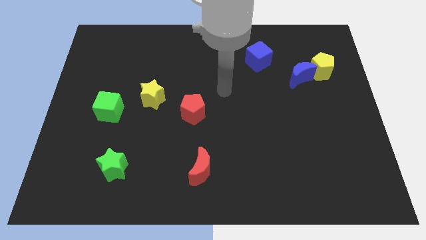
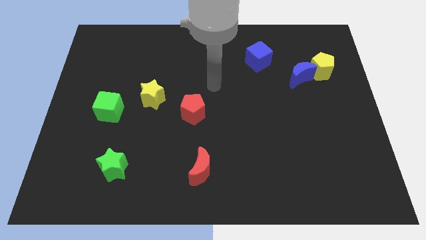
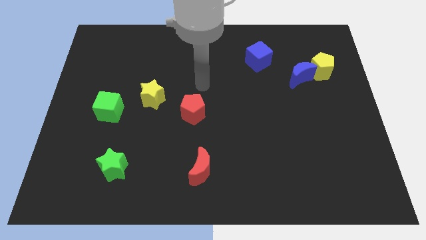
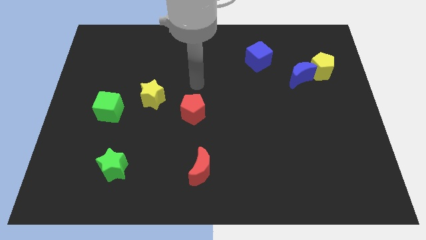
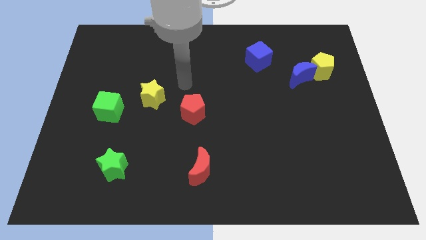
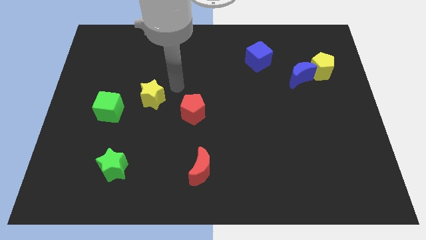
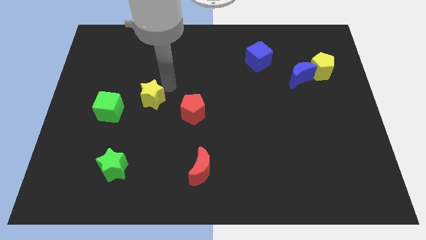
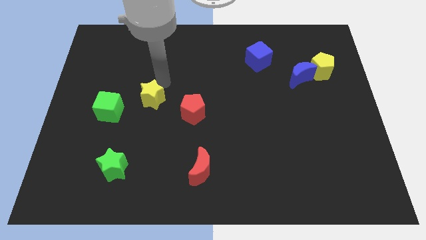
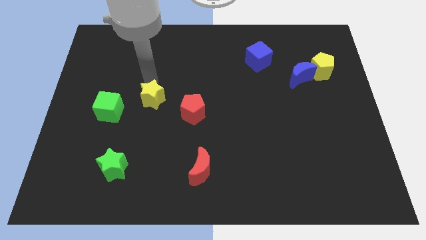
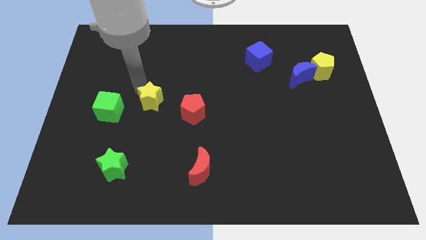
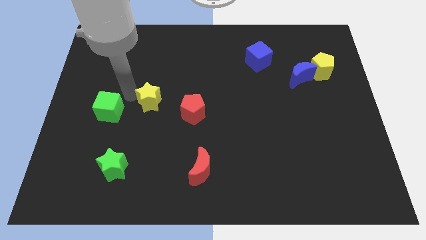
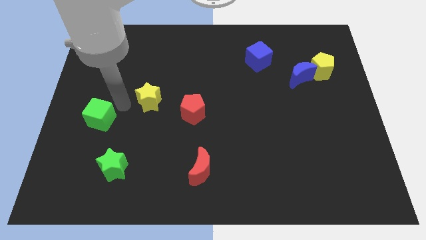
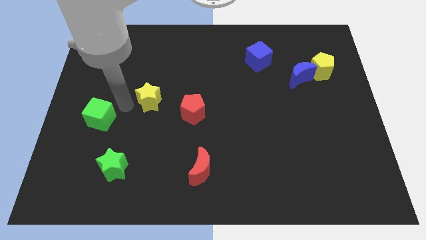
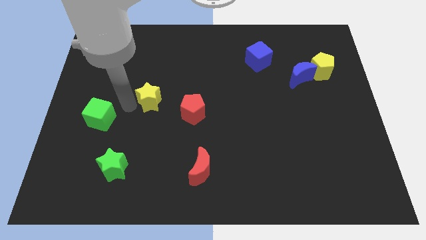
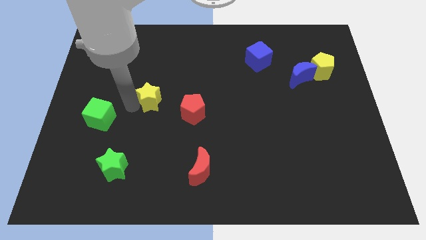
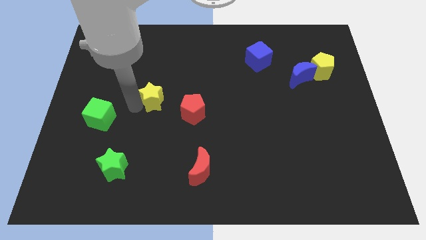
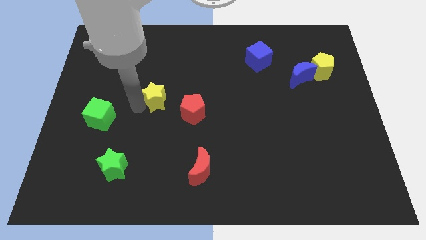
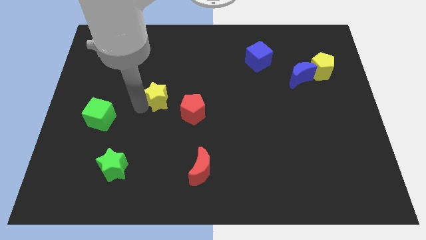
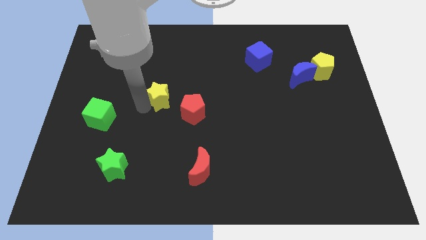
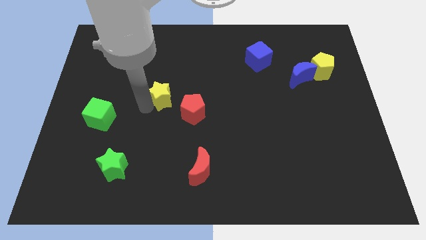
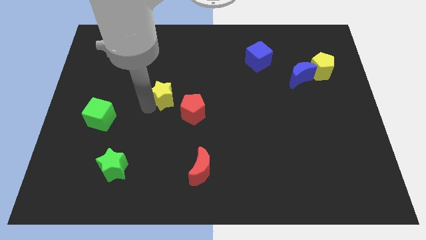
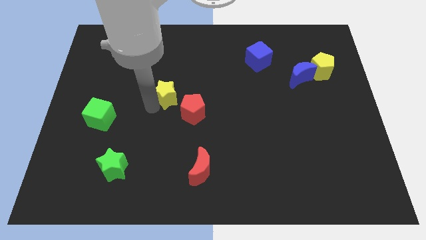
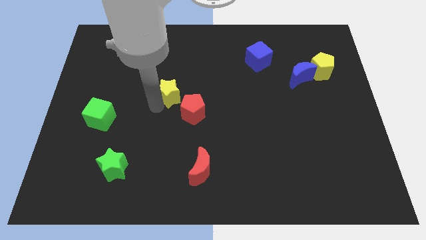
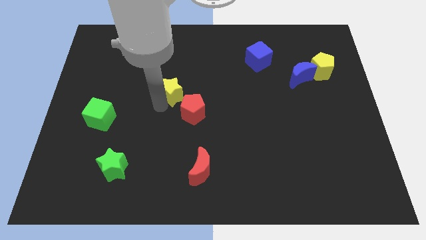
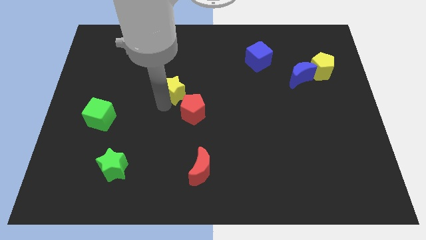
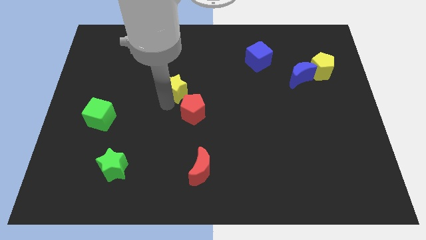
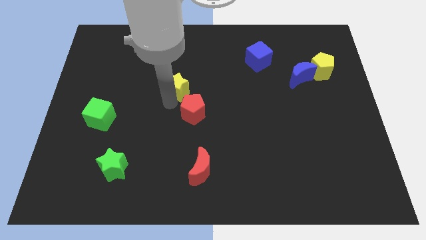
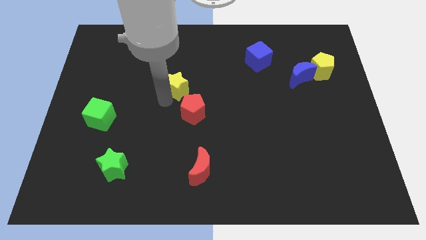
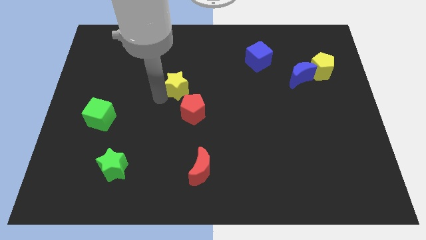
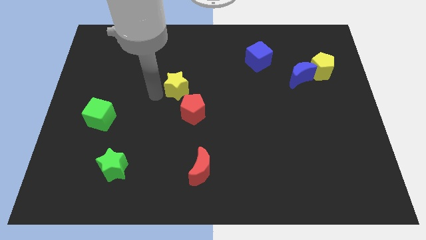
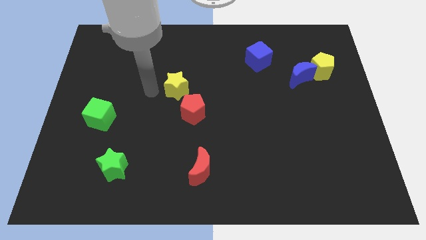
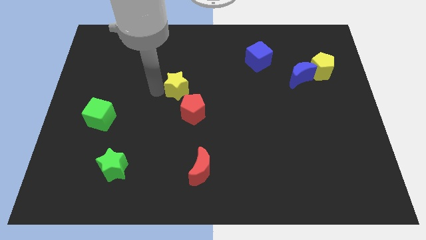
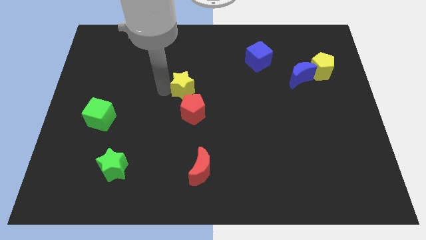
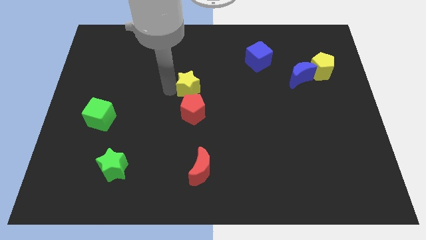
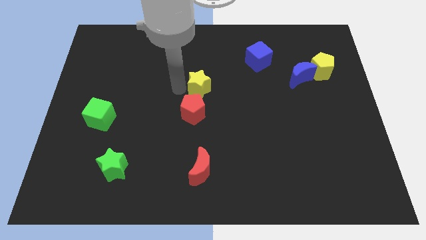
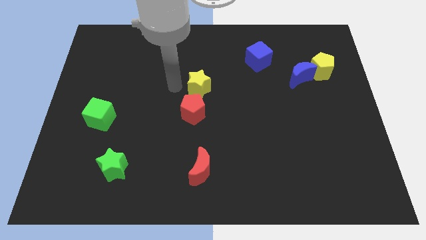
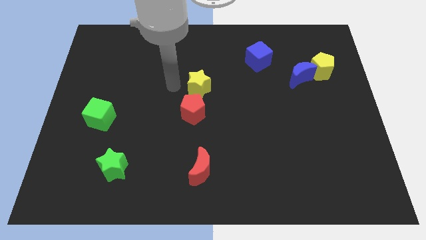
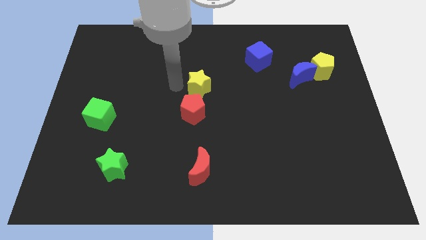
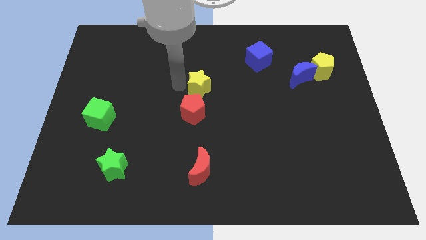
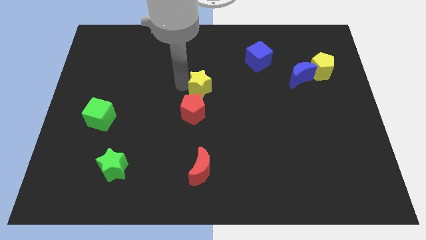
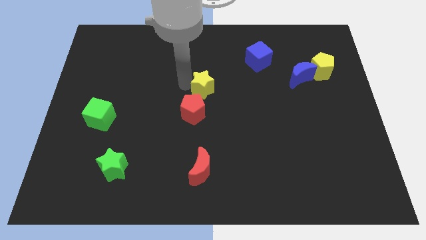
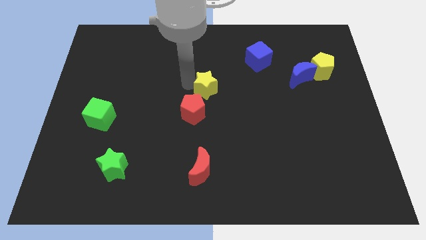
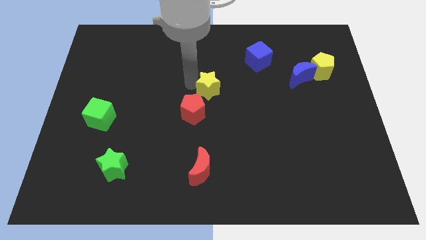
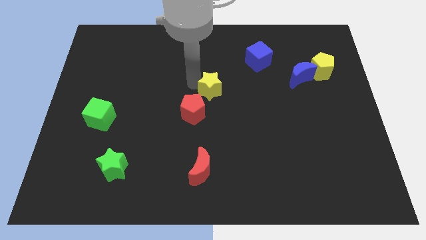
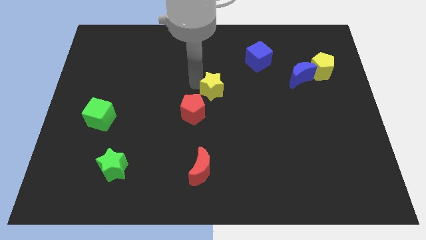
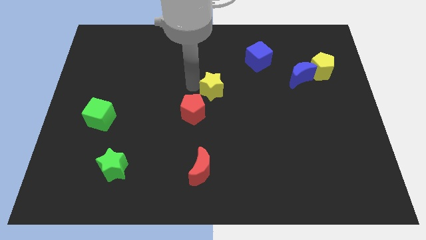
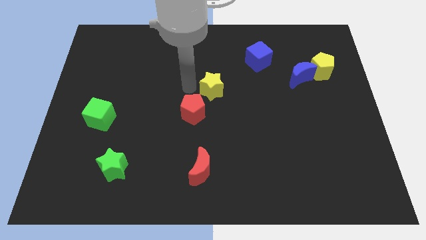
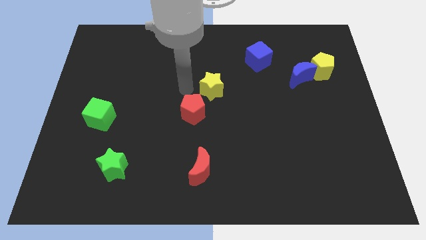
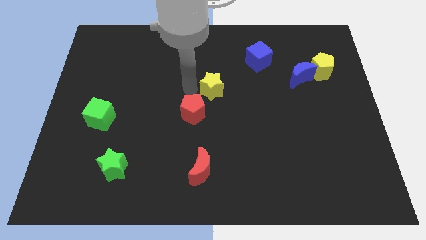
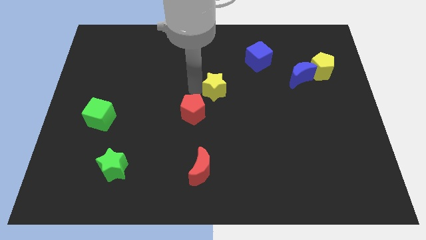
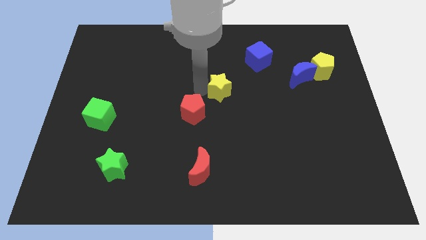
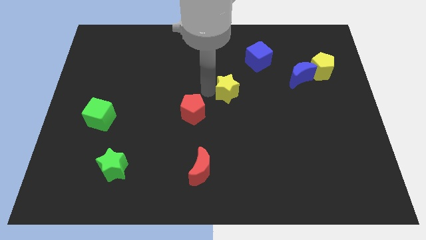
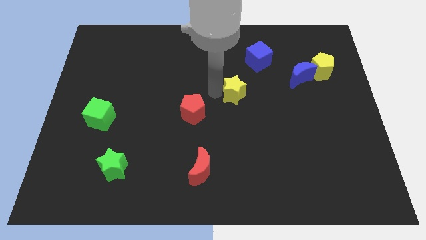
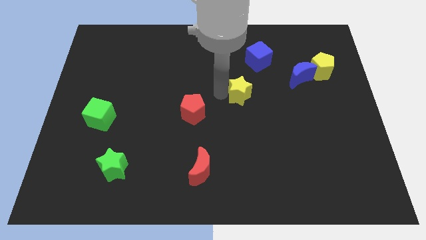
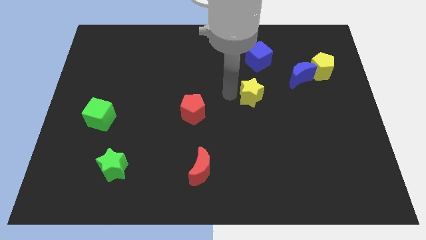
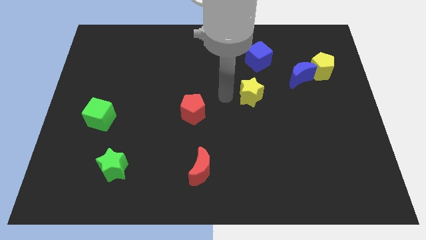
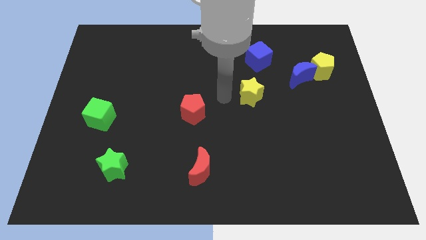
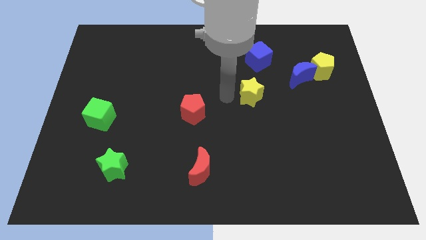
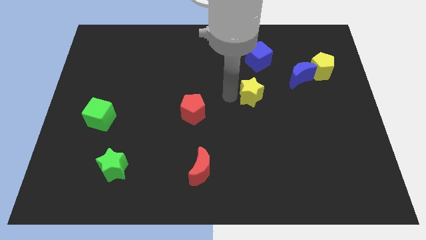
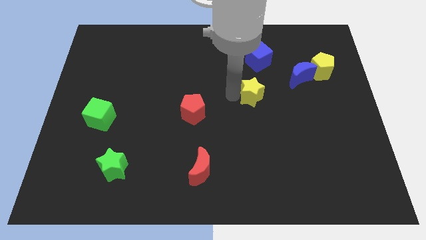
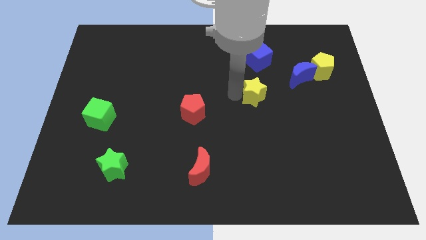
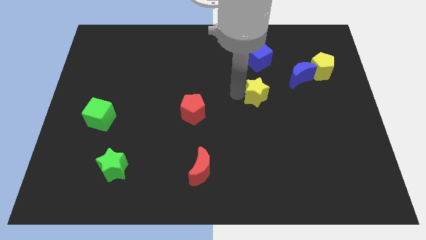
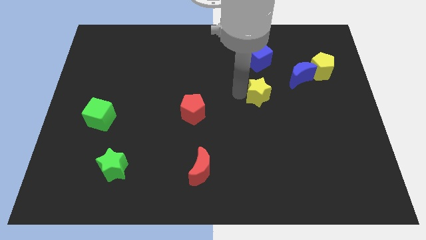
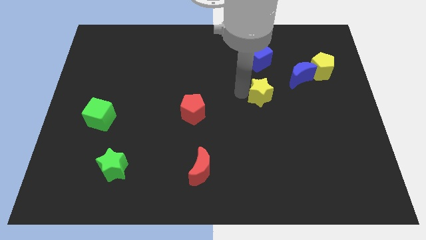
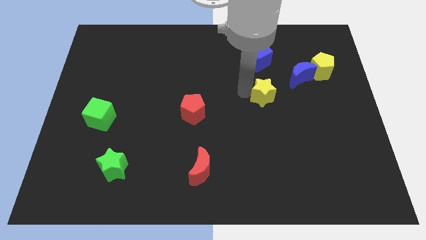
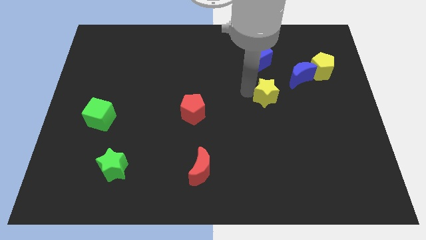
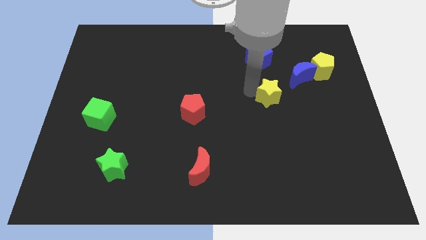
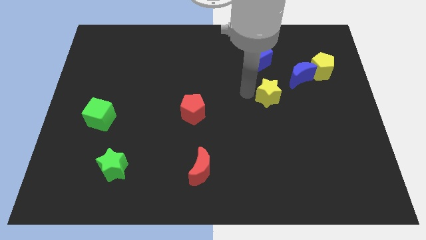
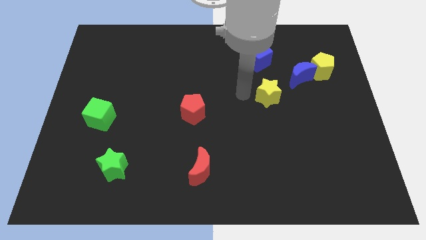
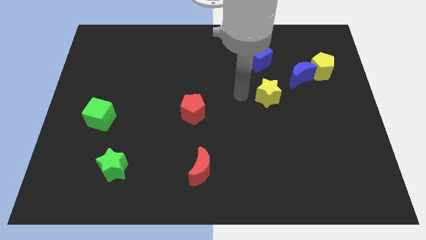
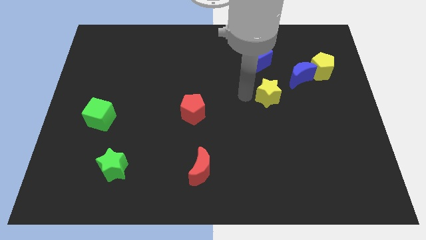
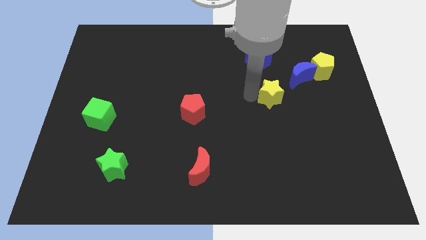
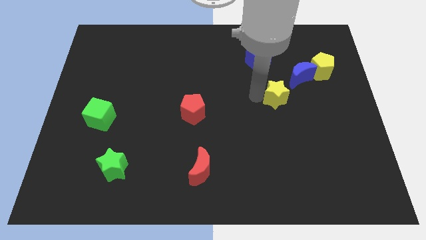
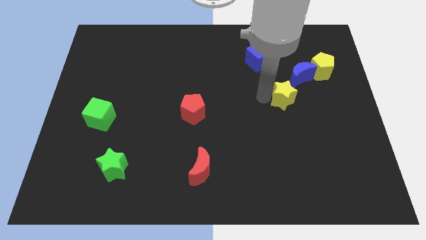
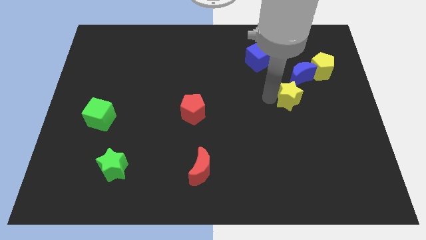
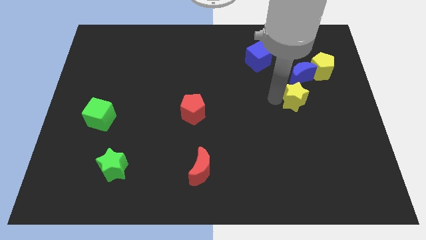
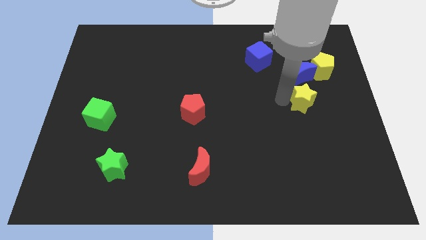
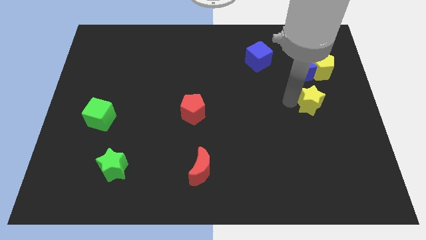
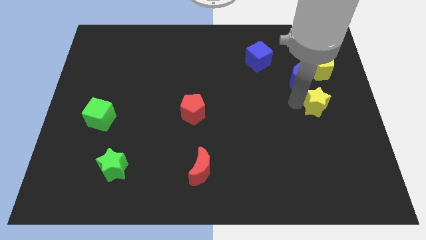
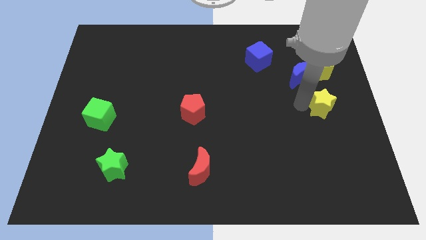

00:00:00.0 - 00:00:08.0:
slide the yellow star to the right side of the board

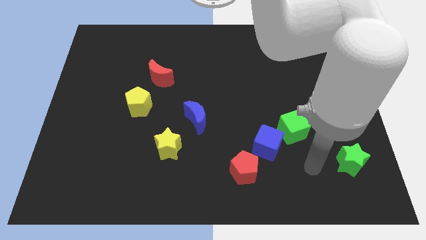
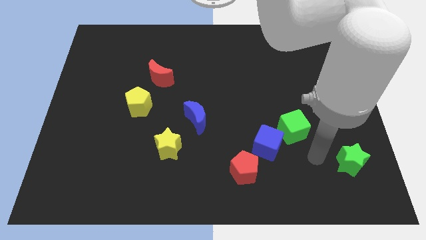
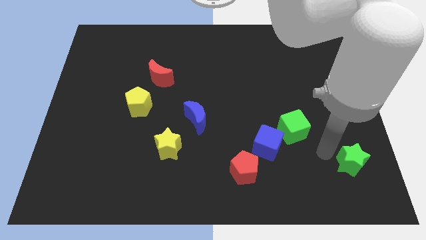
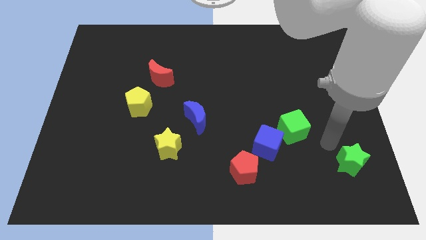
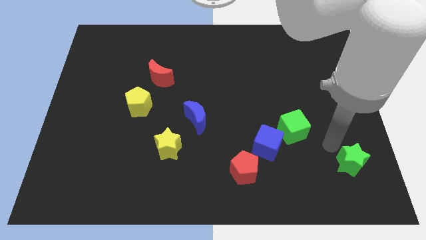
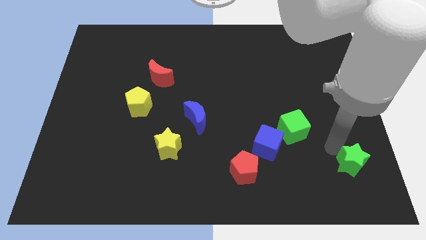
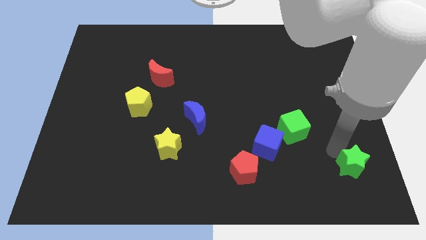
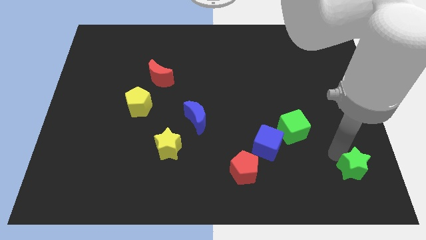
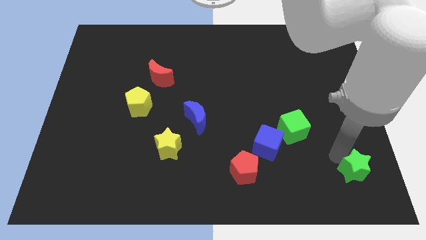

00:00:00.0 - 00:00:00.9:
move the green star to the bottom right corner
